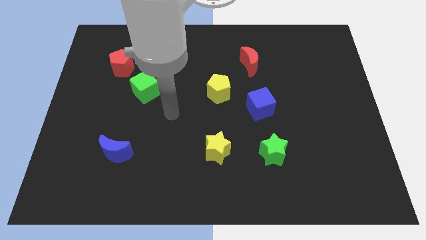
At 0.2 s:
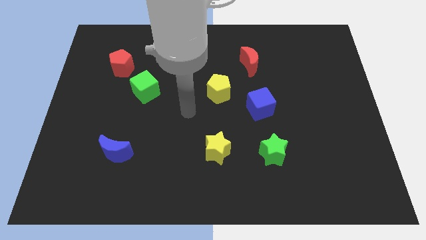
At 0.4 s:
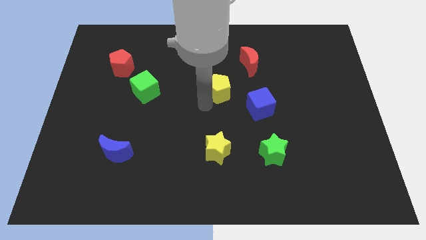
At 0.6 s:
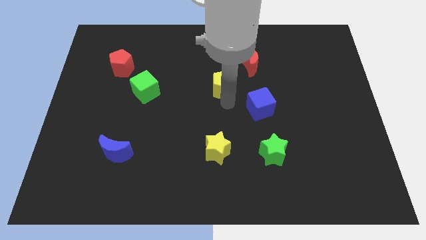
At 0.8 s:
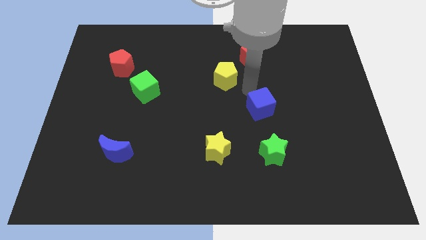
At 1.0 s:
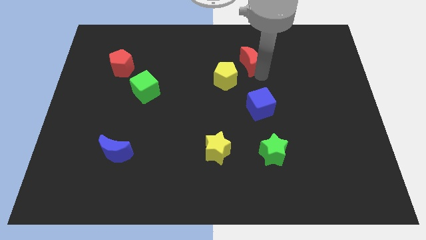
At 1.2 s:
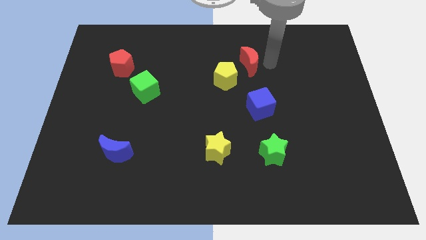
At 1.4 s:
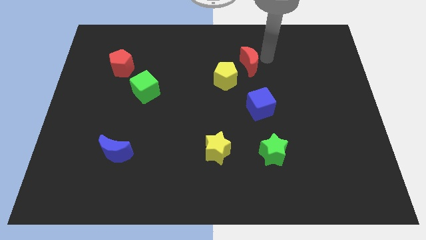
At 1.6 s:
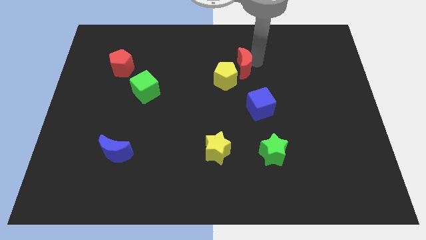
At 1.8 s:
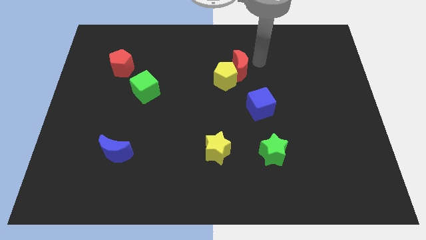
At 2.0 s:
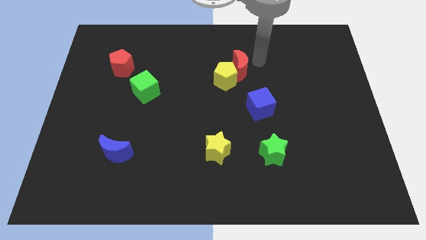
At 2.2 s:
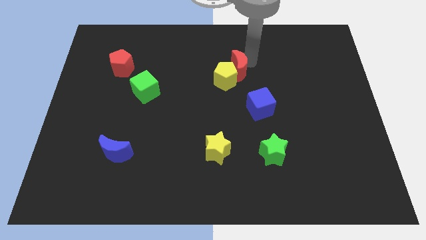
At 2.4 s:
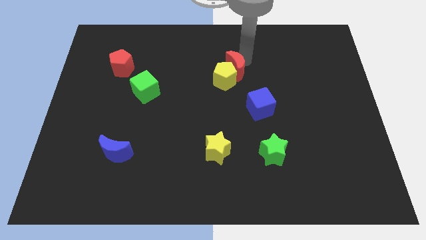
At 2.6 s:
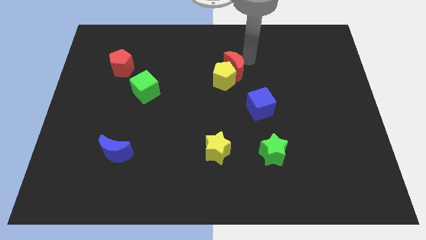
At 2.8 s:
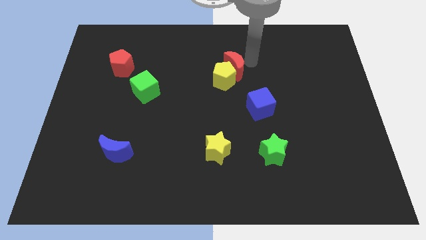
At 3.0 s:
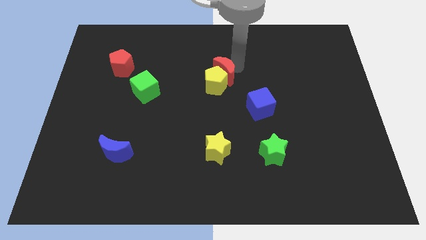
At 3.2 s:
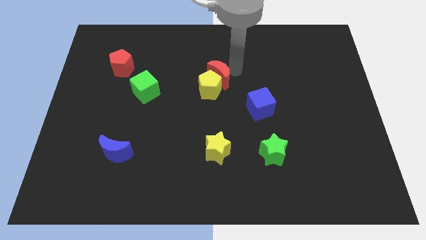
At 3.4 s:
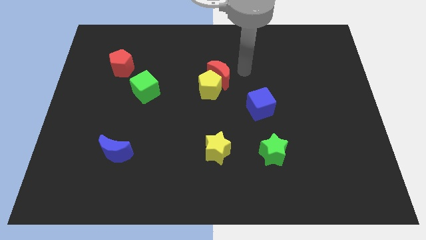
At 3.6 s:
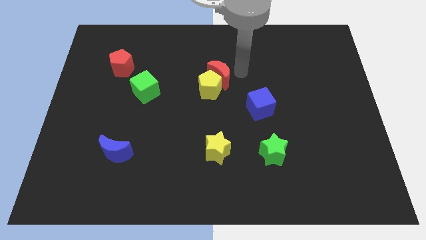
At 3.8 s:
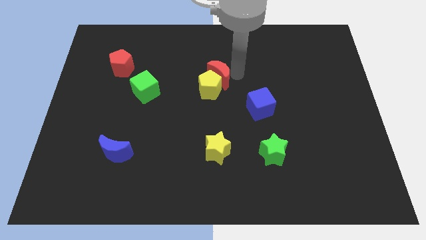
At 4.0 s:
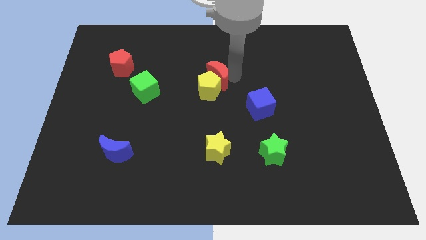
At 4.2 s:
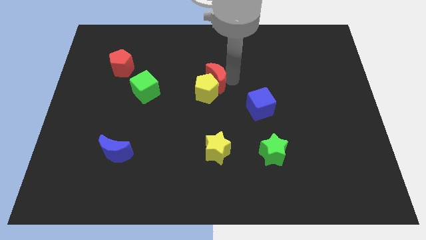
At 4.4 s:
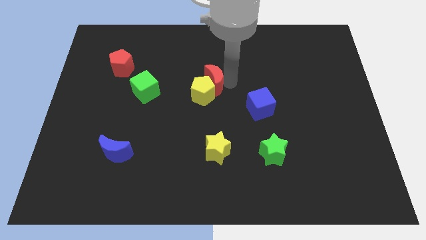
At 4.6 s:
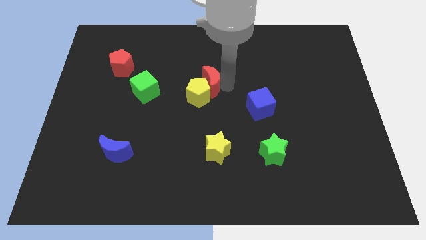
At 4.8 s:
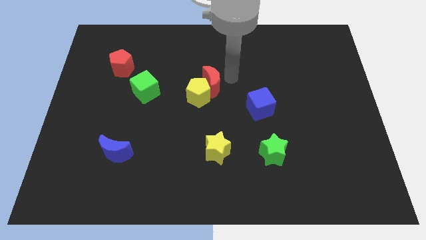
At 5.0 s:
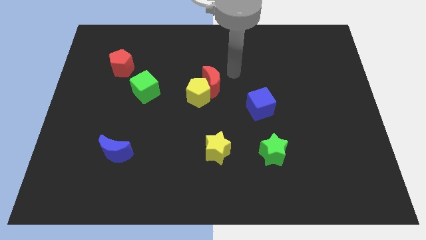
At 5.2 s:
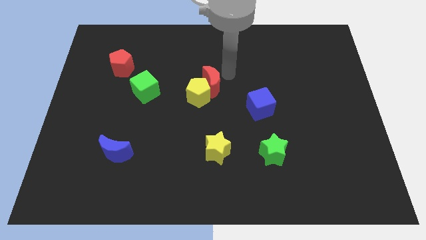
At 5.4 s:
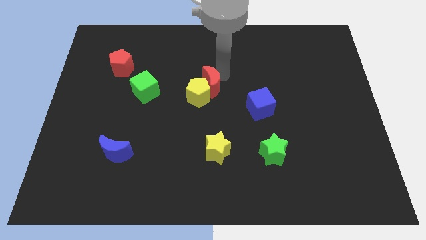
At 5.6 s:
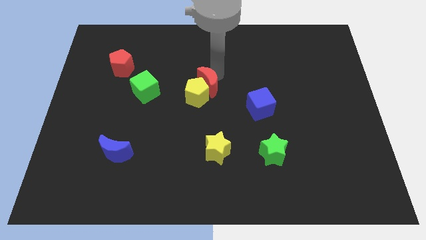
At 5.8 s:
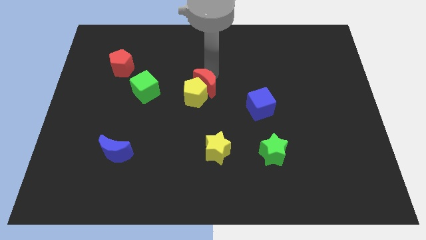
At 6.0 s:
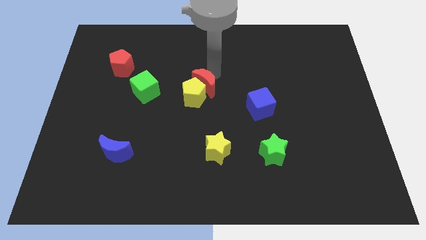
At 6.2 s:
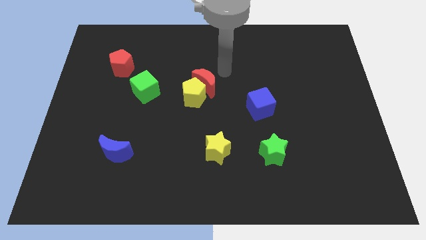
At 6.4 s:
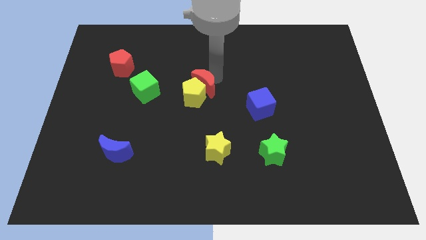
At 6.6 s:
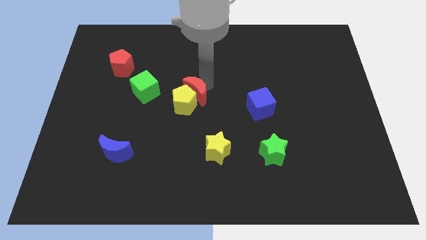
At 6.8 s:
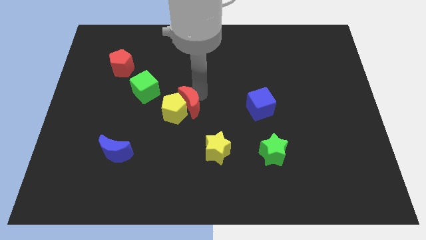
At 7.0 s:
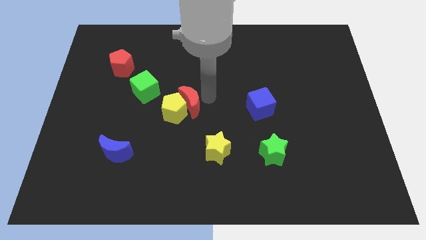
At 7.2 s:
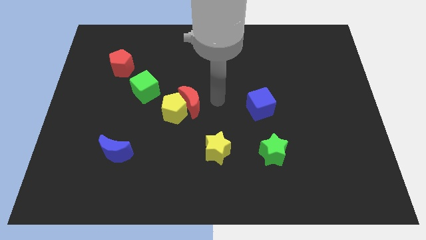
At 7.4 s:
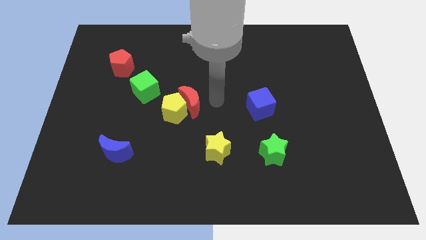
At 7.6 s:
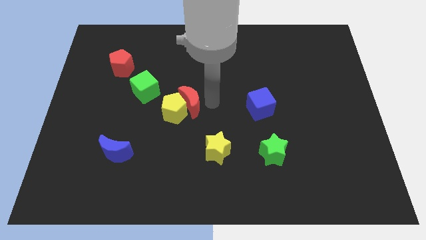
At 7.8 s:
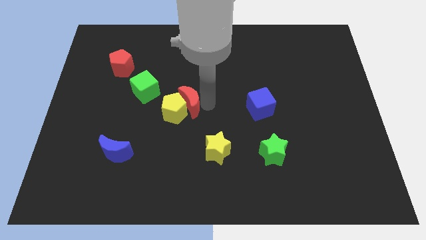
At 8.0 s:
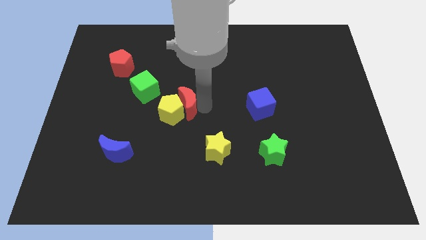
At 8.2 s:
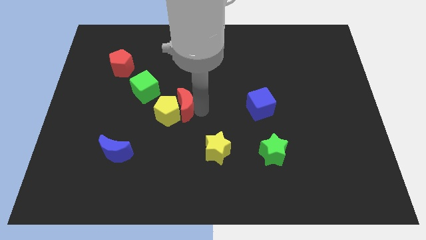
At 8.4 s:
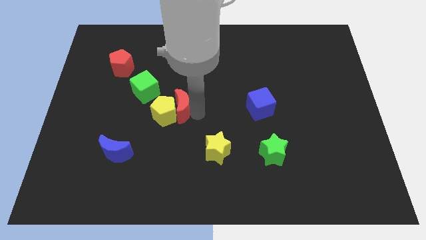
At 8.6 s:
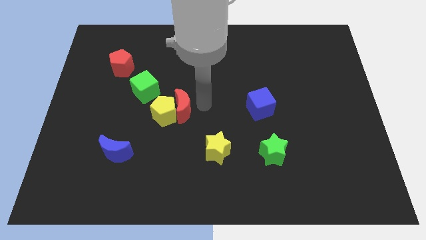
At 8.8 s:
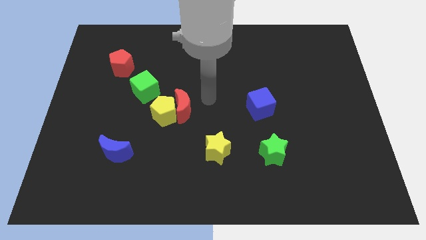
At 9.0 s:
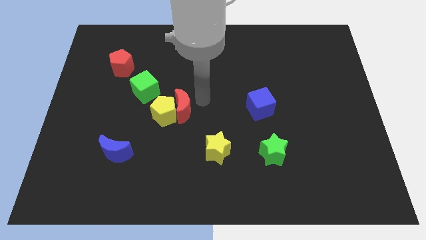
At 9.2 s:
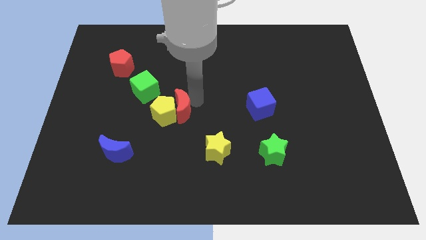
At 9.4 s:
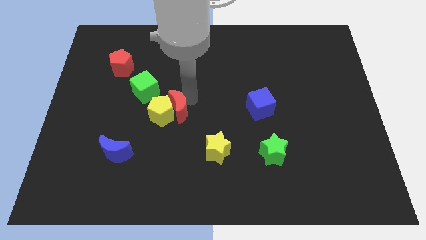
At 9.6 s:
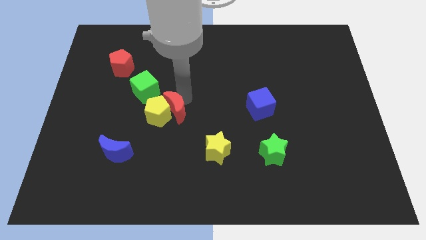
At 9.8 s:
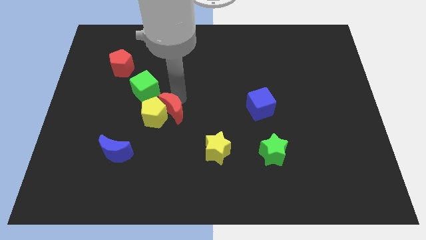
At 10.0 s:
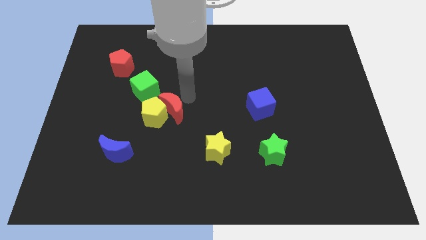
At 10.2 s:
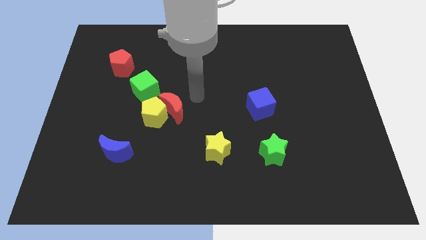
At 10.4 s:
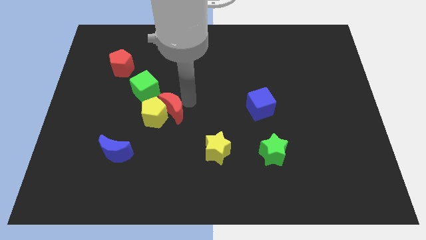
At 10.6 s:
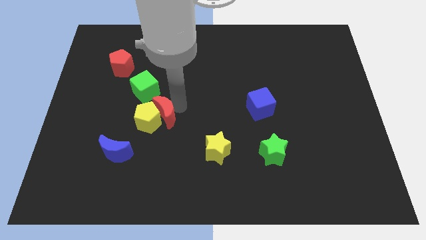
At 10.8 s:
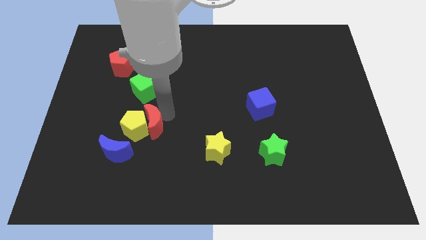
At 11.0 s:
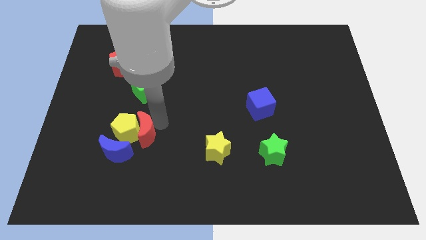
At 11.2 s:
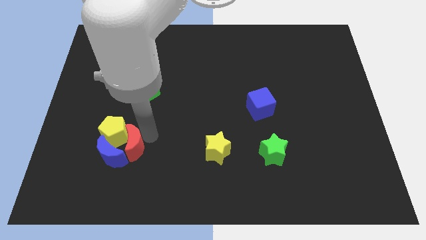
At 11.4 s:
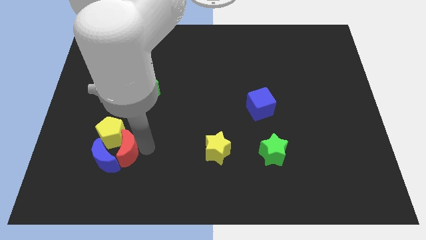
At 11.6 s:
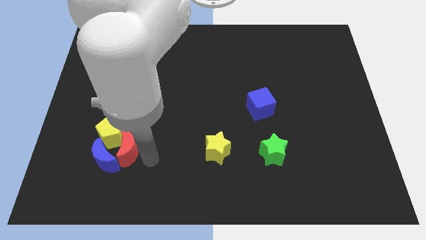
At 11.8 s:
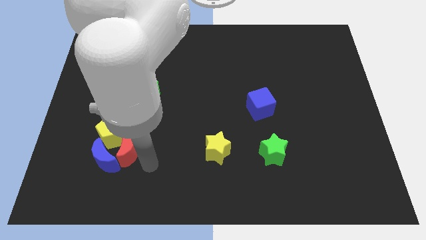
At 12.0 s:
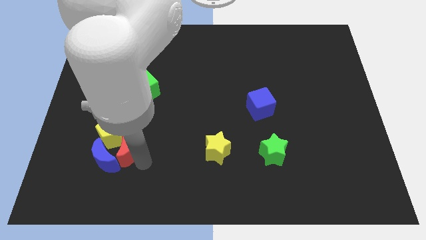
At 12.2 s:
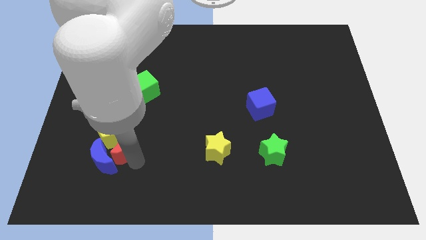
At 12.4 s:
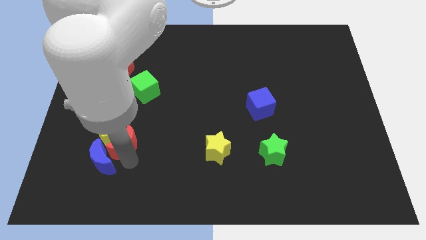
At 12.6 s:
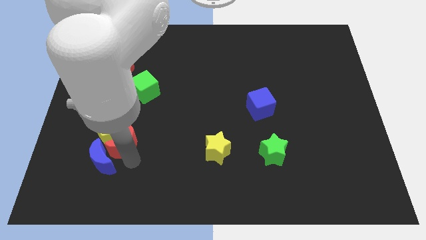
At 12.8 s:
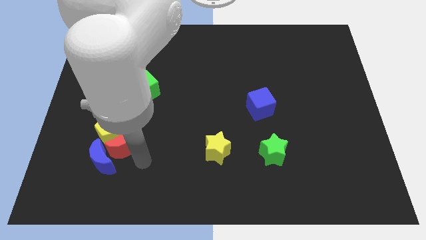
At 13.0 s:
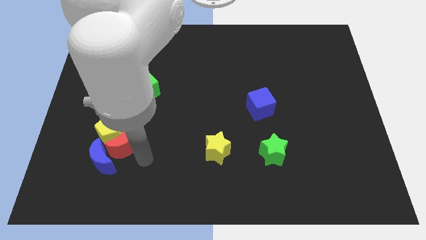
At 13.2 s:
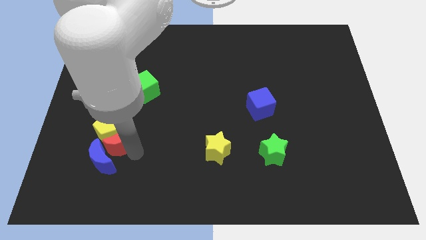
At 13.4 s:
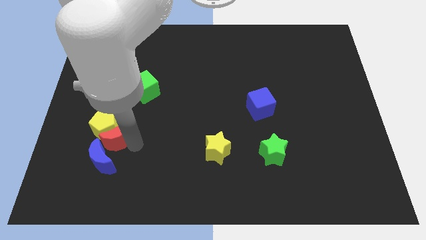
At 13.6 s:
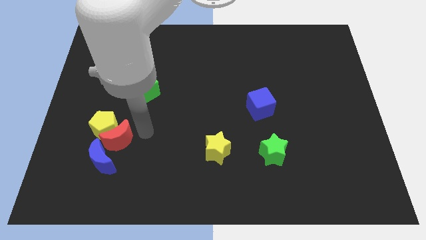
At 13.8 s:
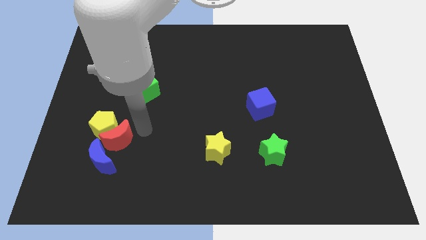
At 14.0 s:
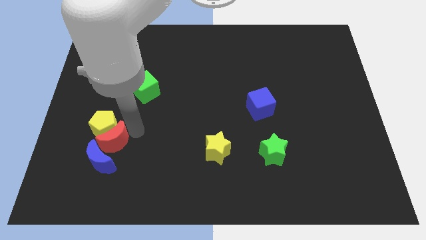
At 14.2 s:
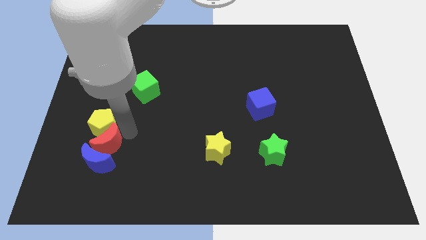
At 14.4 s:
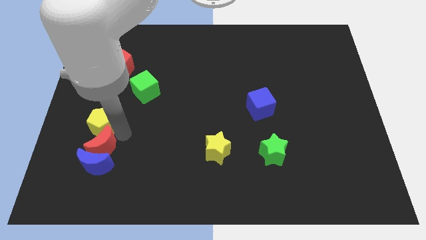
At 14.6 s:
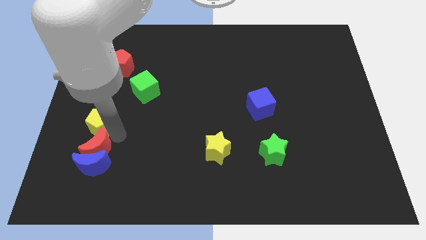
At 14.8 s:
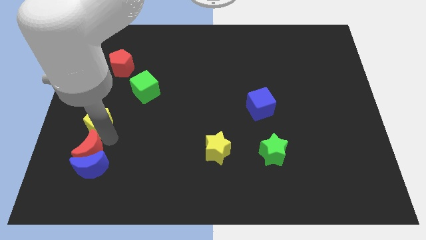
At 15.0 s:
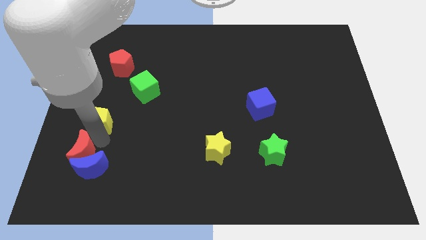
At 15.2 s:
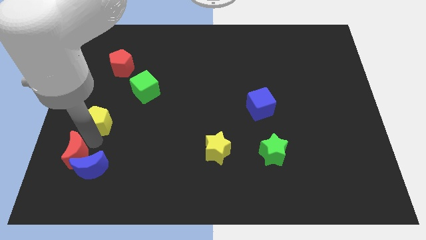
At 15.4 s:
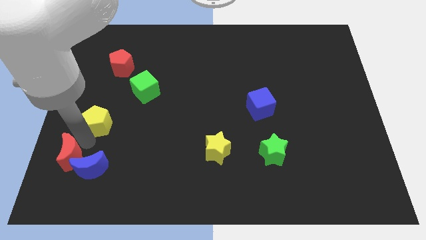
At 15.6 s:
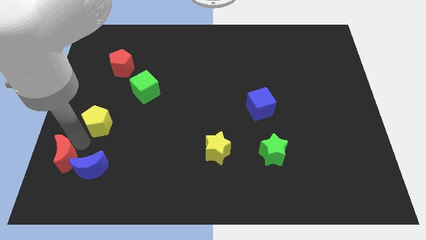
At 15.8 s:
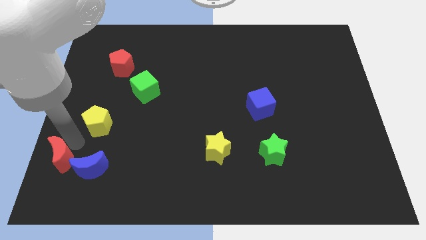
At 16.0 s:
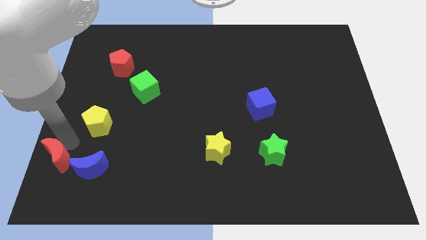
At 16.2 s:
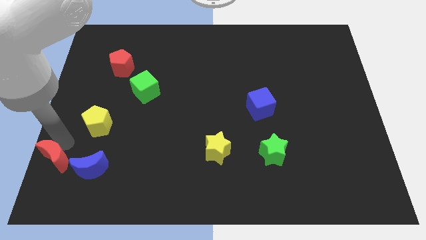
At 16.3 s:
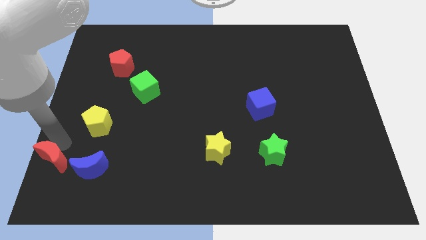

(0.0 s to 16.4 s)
push the red moon to the bottom left
